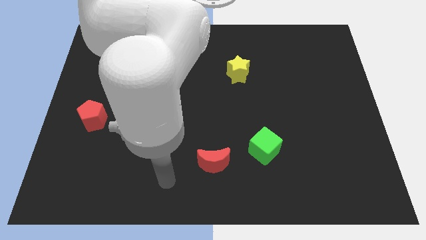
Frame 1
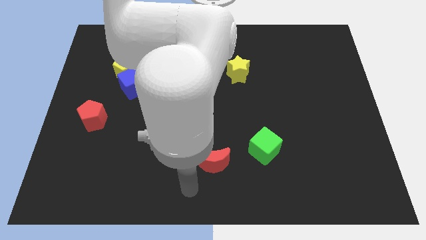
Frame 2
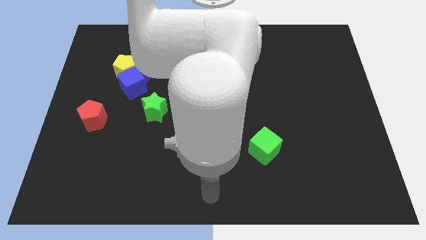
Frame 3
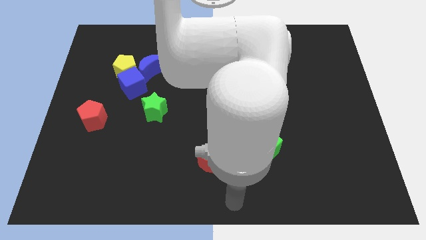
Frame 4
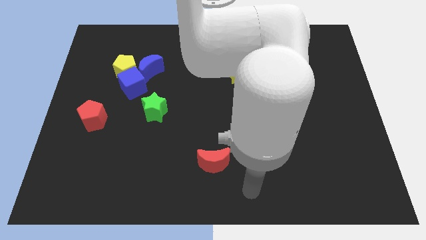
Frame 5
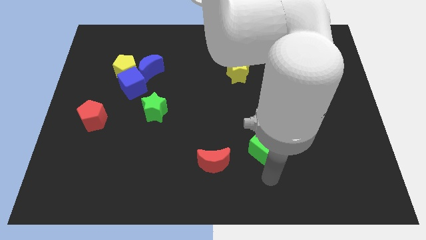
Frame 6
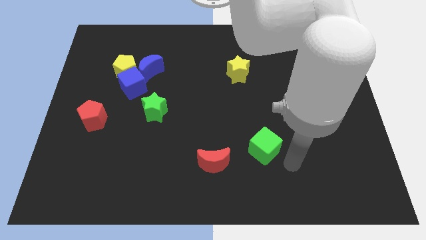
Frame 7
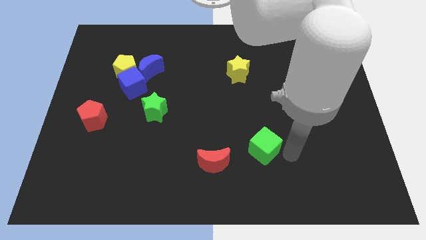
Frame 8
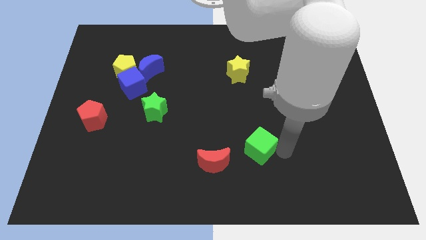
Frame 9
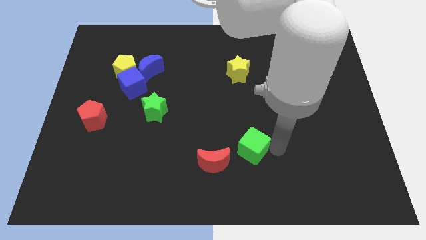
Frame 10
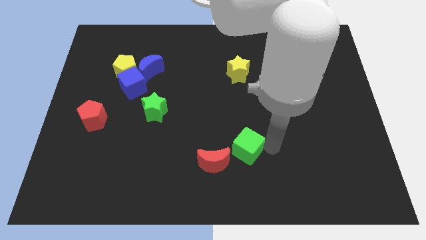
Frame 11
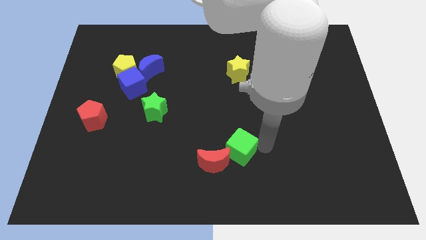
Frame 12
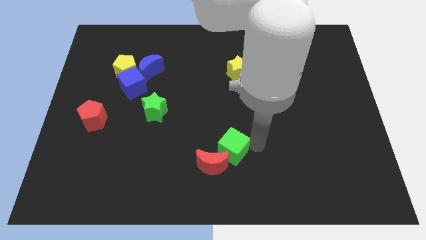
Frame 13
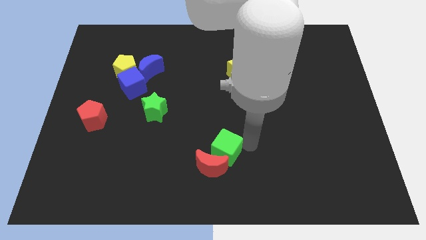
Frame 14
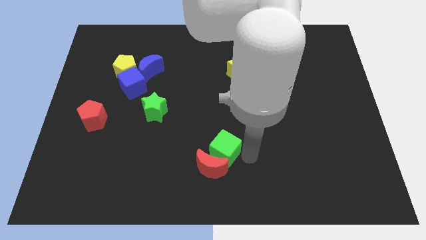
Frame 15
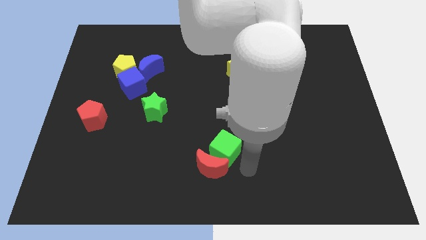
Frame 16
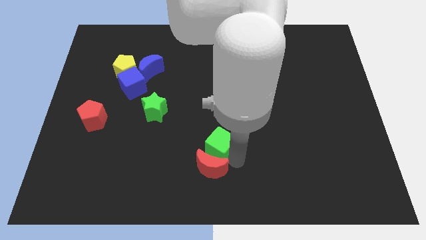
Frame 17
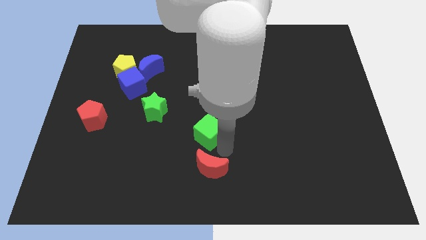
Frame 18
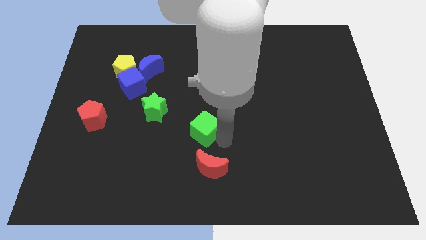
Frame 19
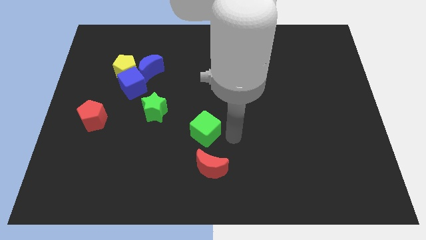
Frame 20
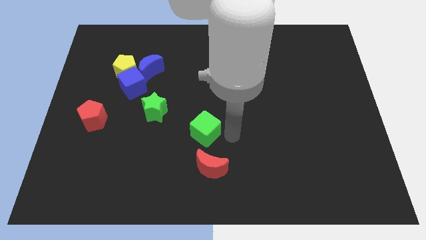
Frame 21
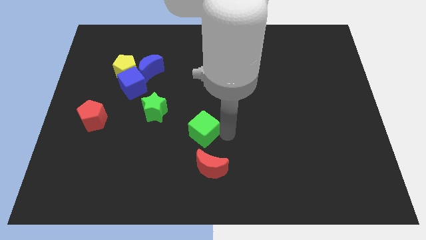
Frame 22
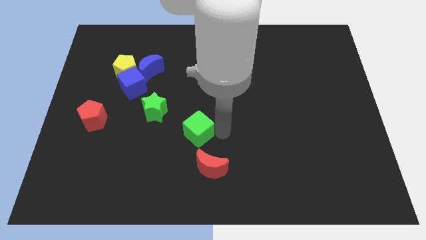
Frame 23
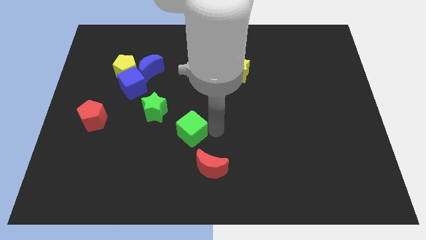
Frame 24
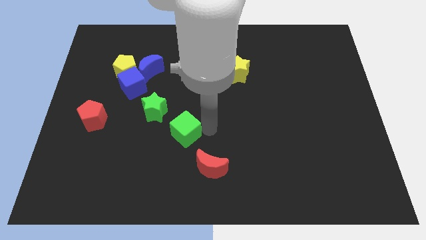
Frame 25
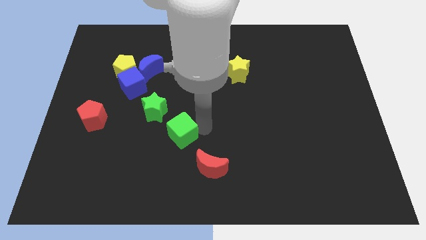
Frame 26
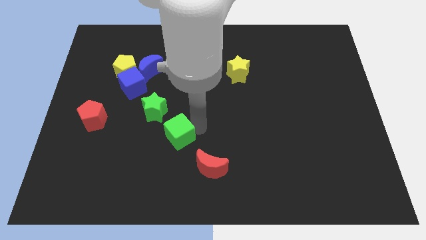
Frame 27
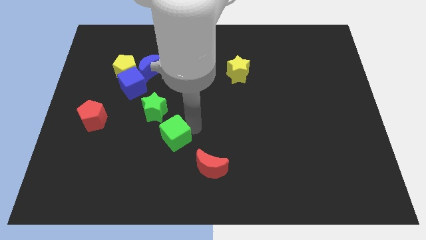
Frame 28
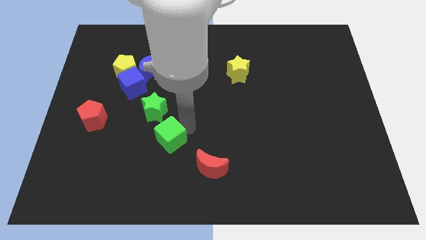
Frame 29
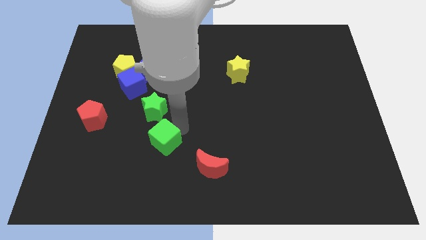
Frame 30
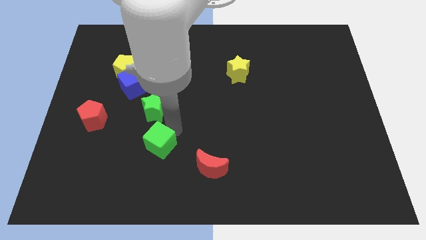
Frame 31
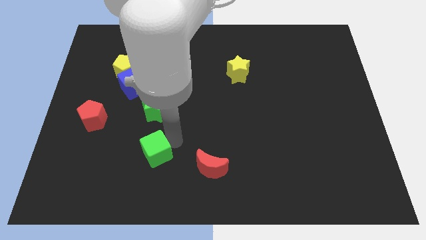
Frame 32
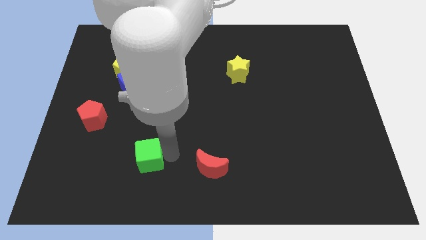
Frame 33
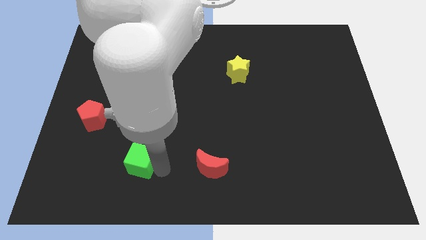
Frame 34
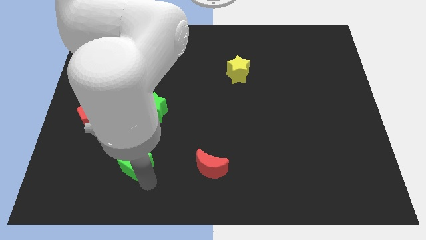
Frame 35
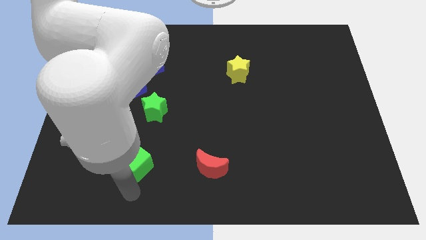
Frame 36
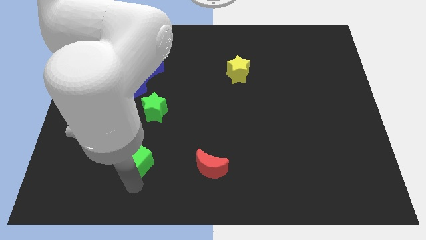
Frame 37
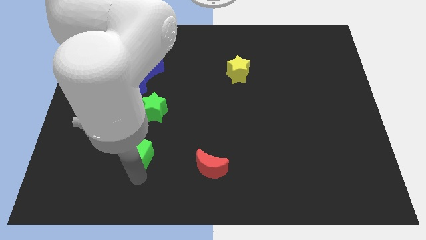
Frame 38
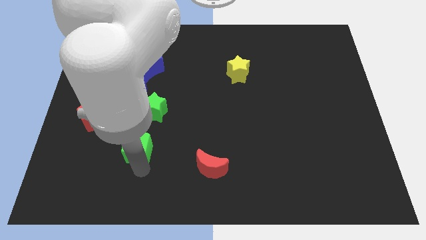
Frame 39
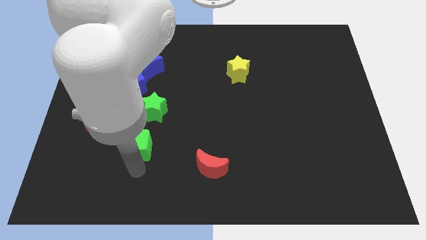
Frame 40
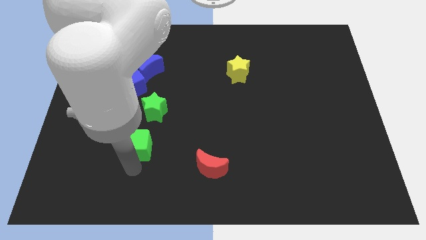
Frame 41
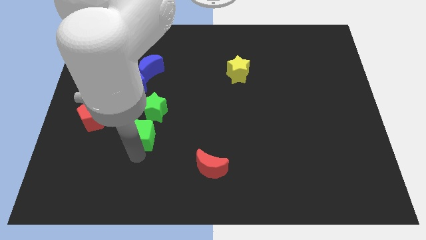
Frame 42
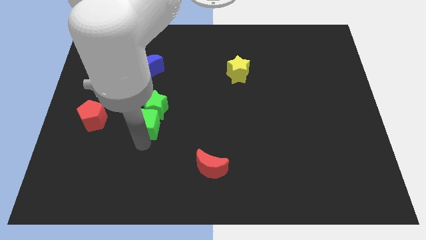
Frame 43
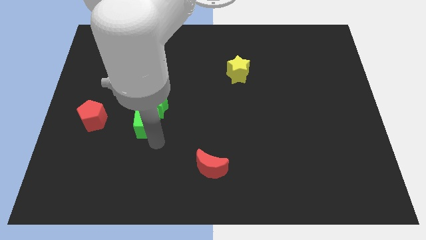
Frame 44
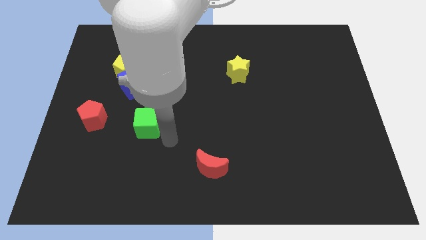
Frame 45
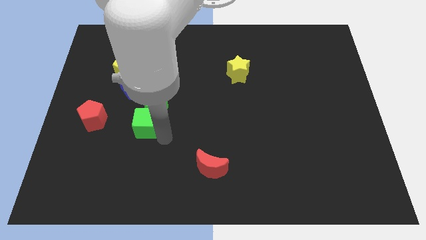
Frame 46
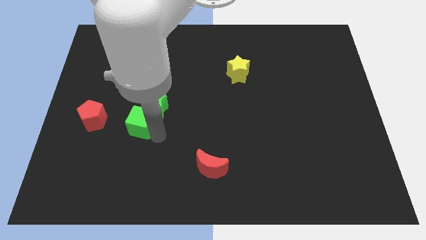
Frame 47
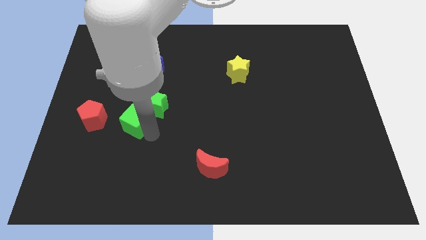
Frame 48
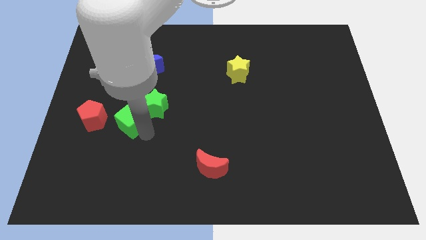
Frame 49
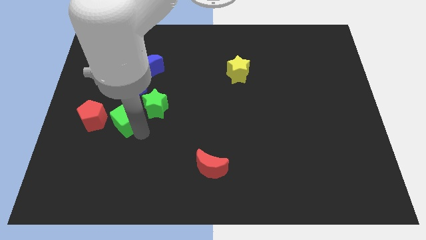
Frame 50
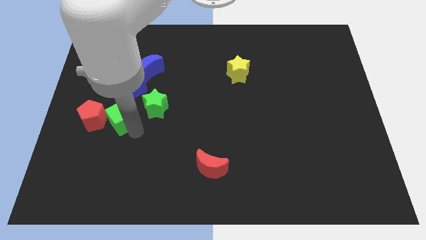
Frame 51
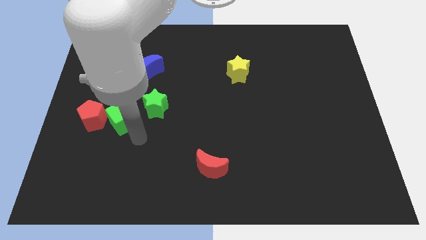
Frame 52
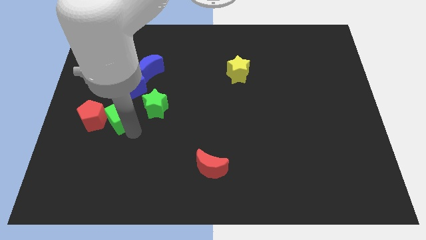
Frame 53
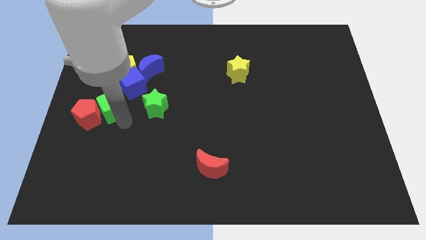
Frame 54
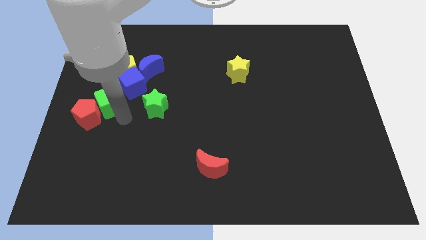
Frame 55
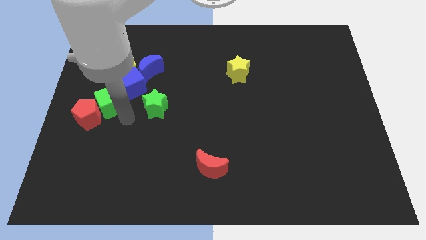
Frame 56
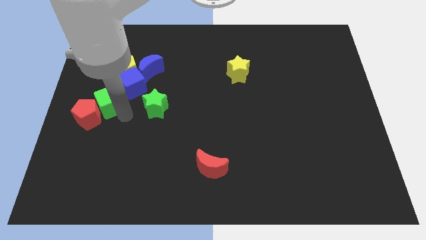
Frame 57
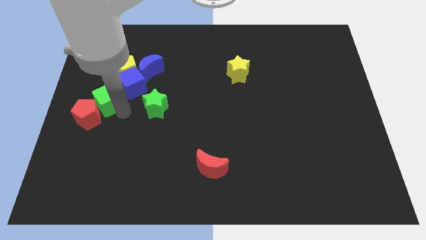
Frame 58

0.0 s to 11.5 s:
push the green cube to the left side

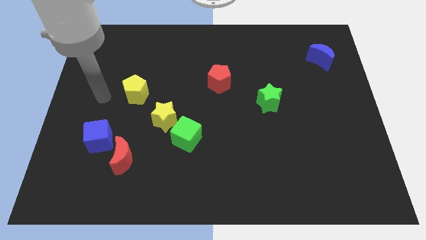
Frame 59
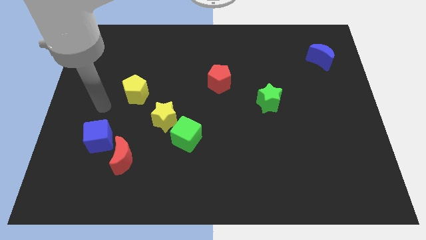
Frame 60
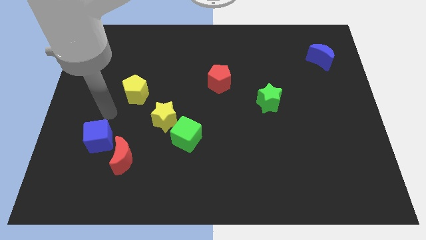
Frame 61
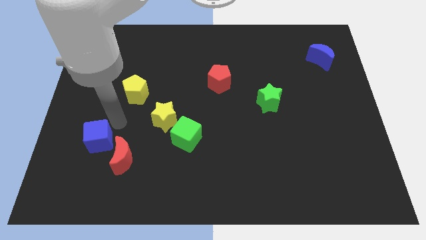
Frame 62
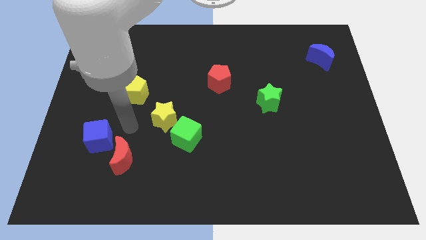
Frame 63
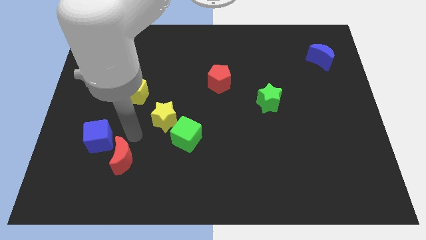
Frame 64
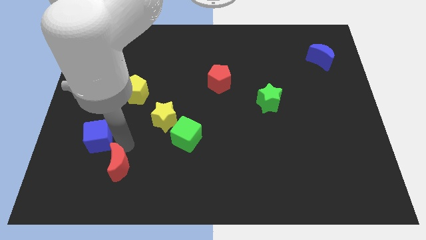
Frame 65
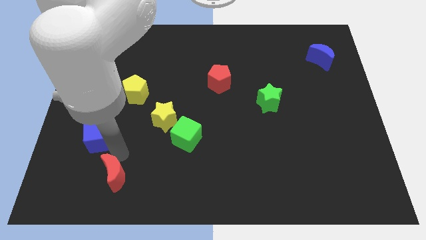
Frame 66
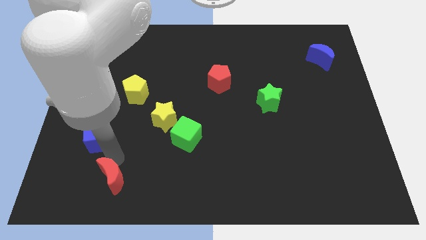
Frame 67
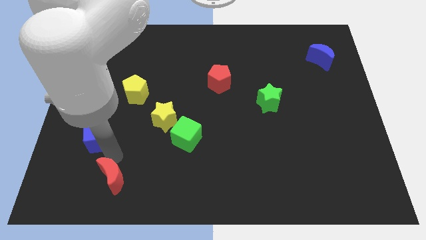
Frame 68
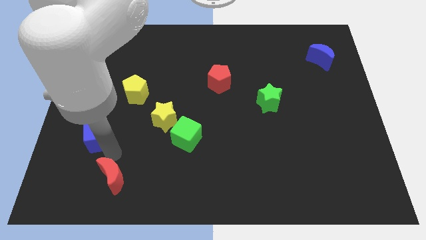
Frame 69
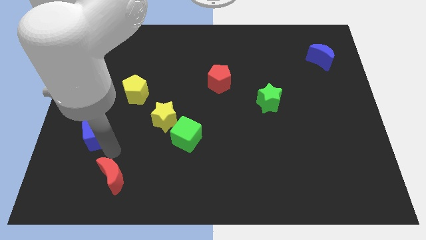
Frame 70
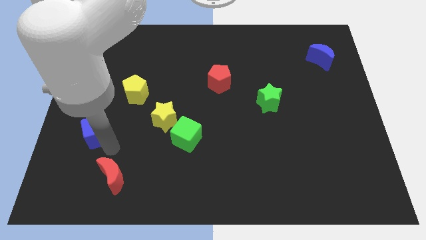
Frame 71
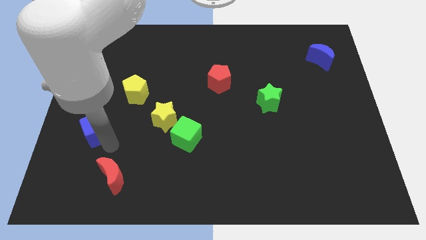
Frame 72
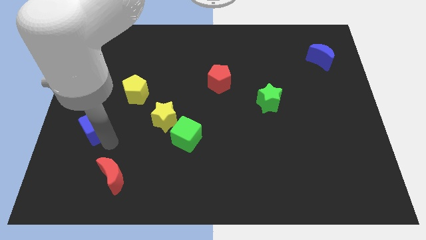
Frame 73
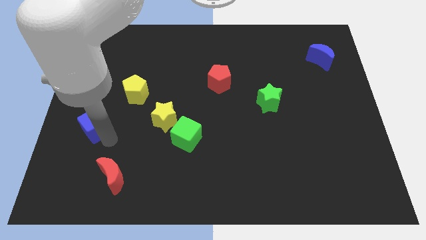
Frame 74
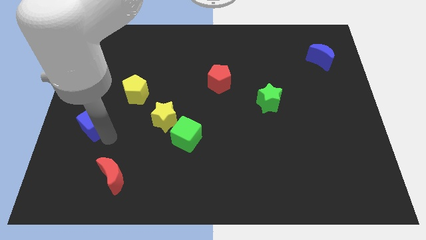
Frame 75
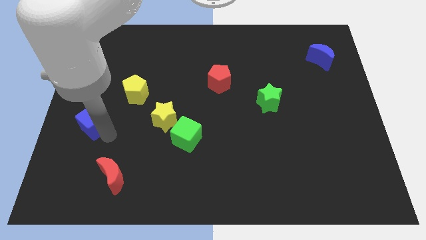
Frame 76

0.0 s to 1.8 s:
put the blue cube to the left side of the board
